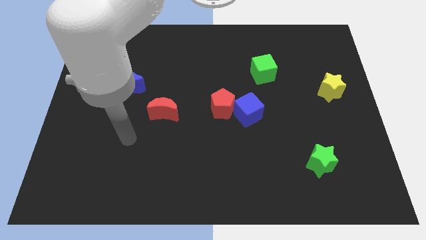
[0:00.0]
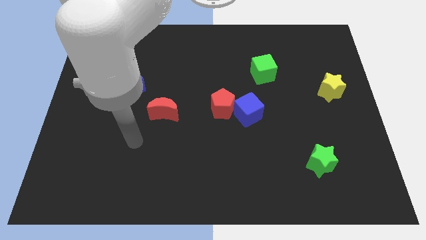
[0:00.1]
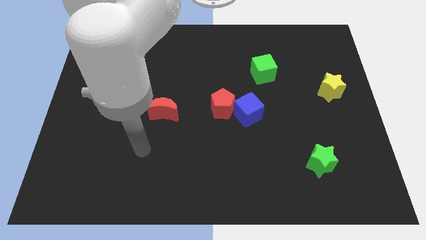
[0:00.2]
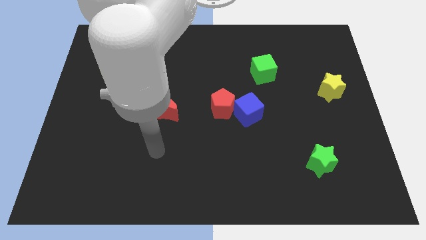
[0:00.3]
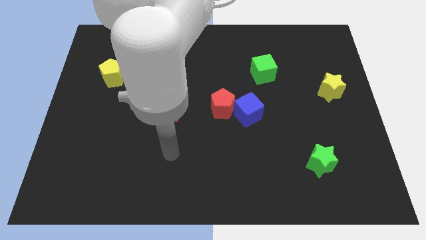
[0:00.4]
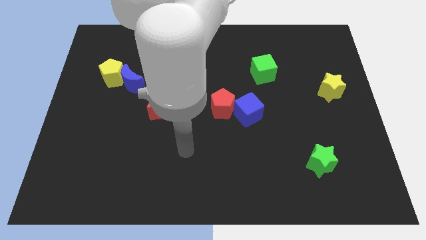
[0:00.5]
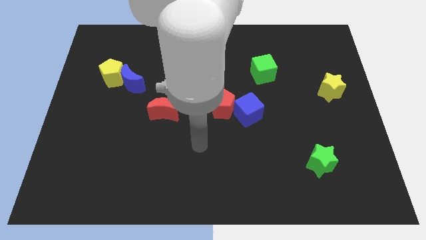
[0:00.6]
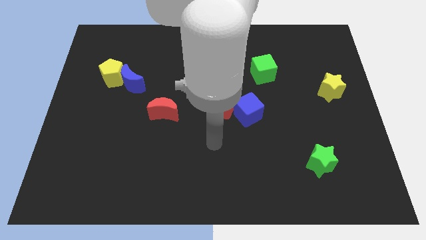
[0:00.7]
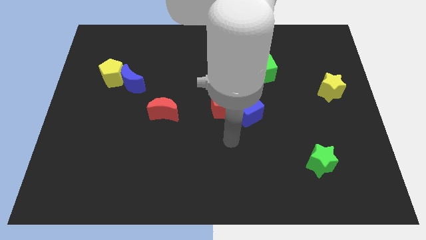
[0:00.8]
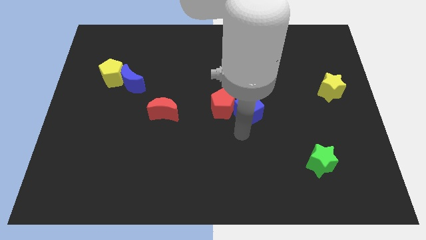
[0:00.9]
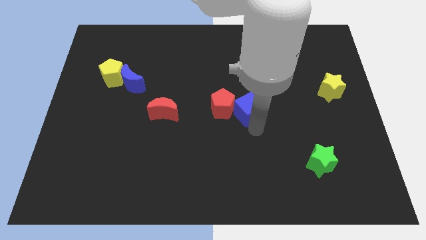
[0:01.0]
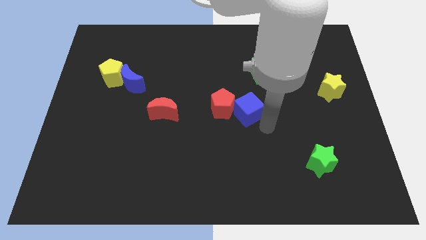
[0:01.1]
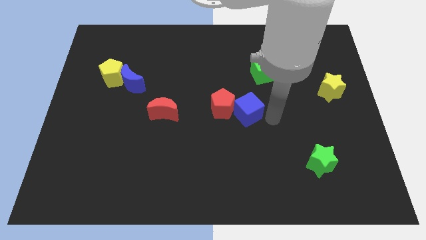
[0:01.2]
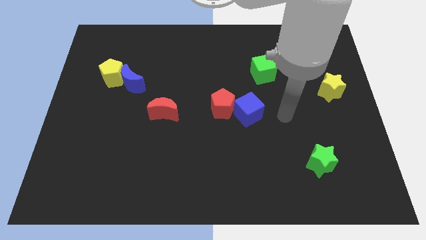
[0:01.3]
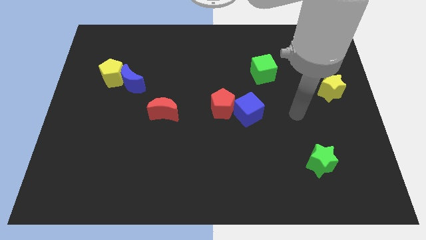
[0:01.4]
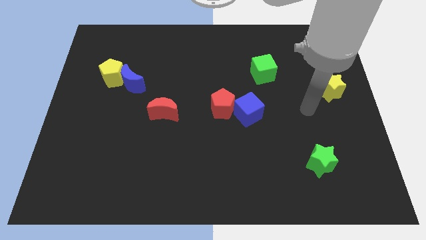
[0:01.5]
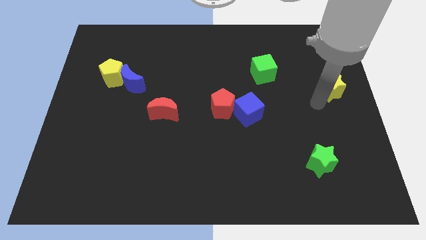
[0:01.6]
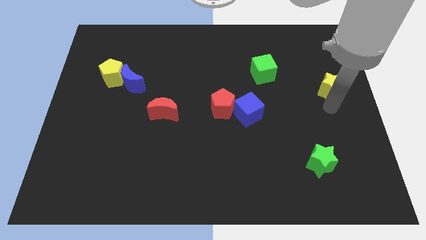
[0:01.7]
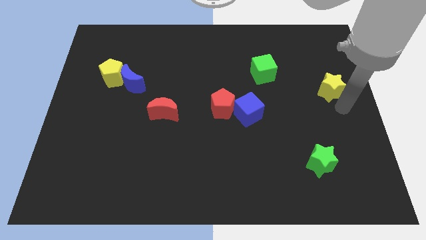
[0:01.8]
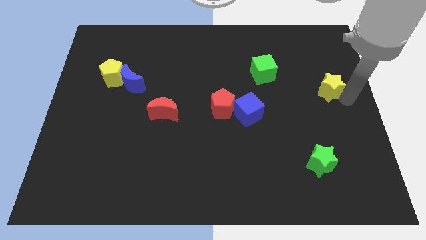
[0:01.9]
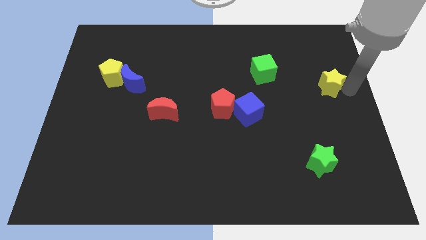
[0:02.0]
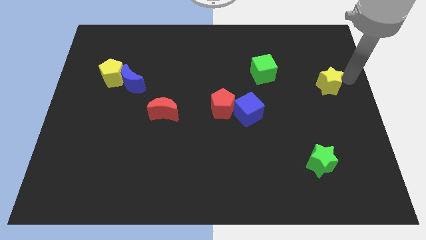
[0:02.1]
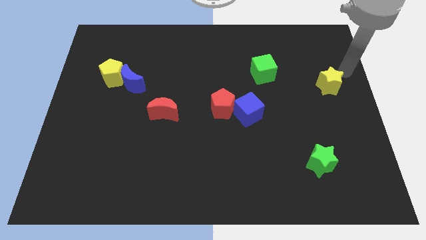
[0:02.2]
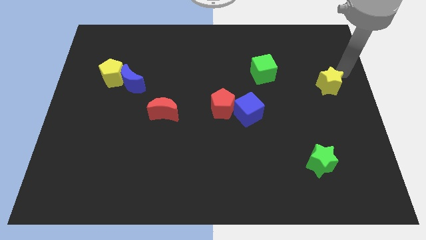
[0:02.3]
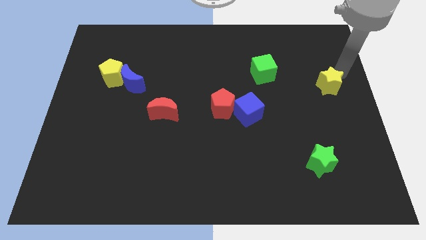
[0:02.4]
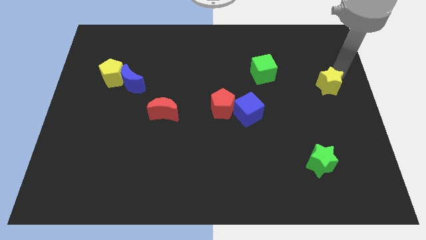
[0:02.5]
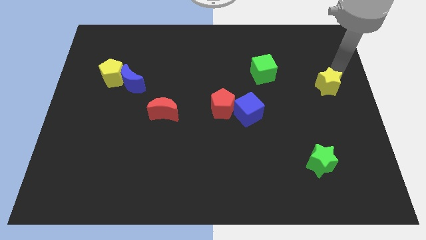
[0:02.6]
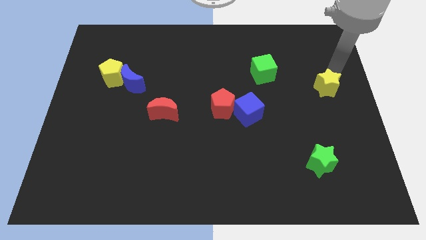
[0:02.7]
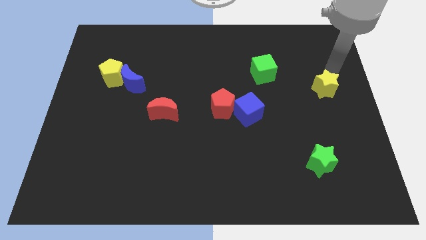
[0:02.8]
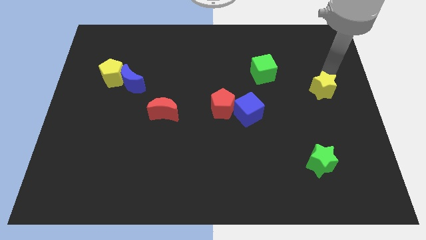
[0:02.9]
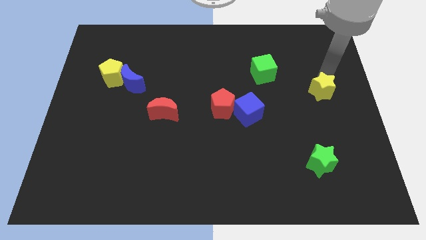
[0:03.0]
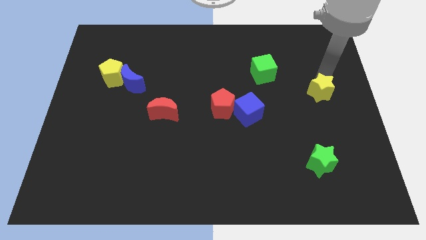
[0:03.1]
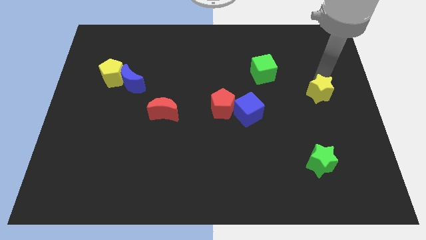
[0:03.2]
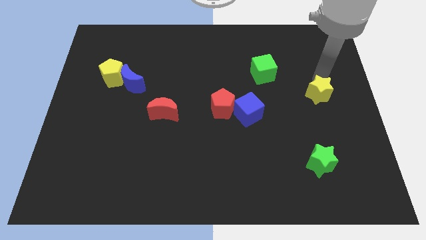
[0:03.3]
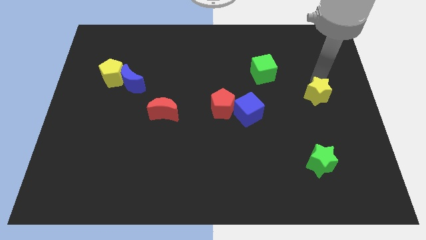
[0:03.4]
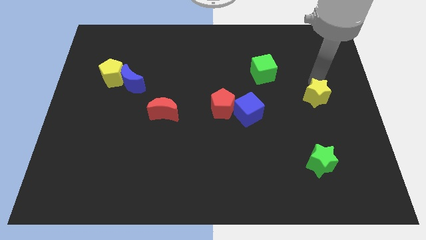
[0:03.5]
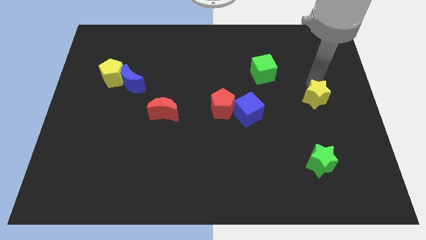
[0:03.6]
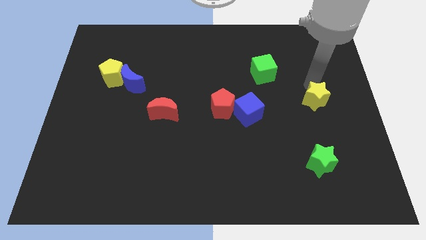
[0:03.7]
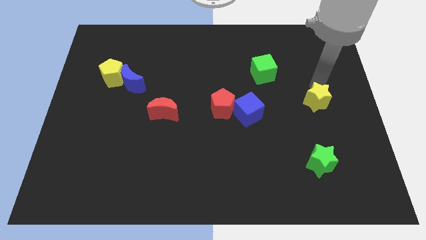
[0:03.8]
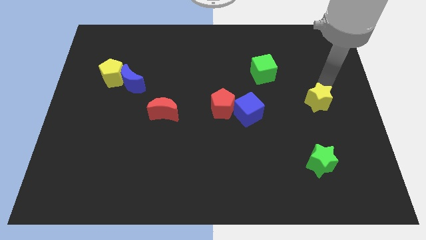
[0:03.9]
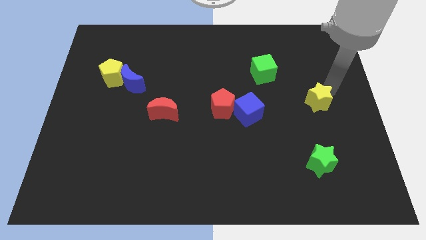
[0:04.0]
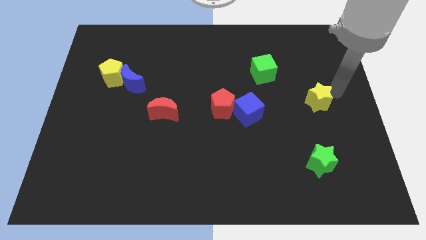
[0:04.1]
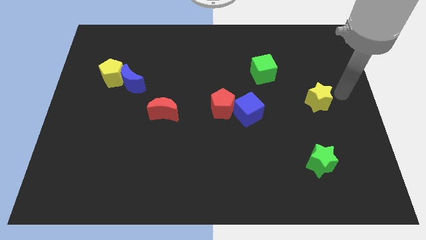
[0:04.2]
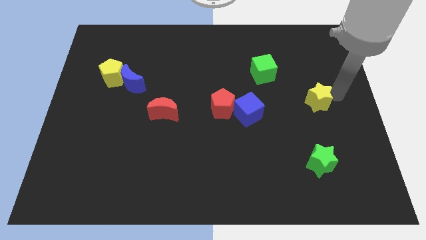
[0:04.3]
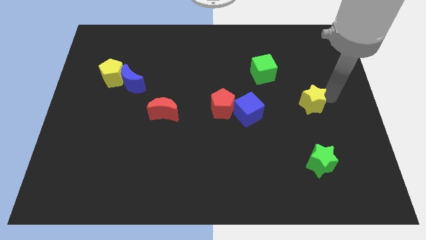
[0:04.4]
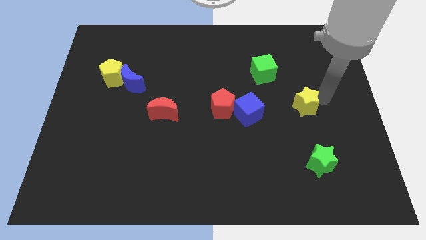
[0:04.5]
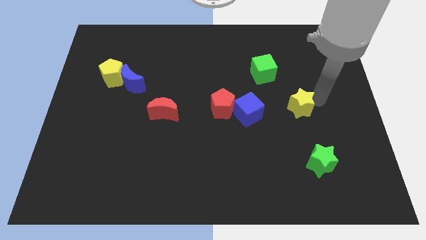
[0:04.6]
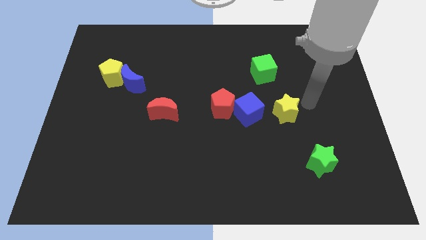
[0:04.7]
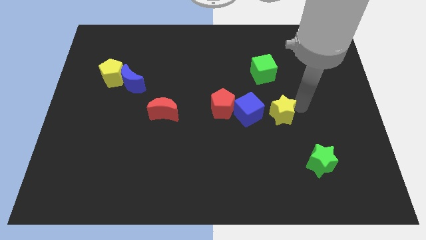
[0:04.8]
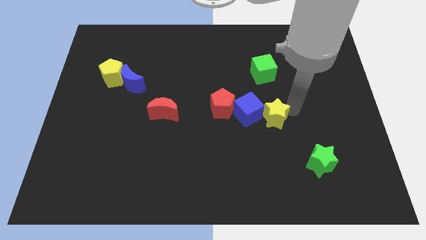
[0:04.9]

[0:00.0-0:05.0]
put the yellow star to the blue cube

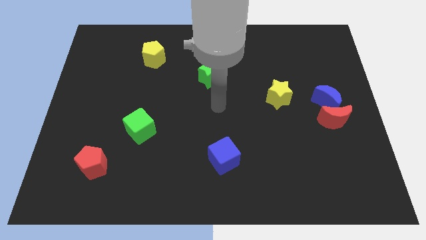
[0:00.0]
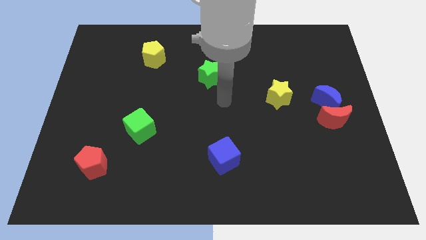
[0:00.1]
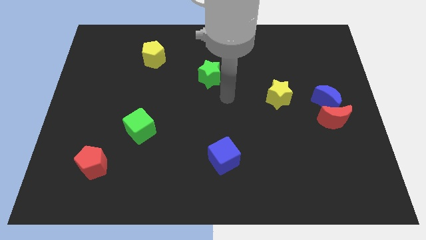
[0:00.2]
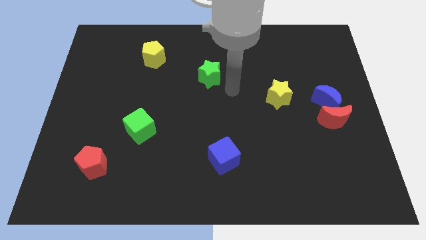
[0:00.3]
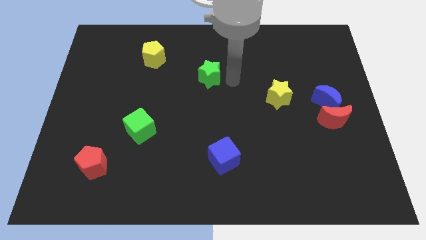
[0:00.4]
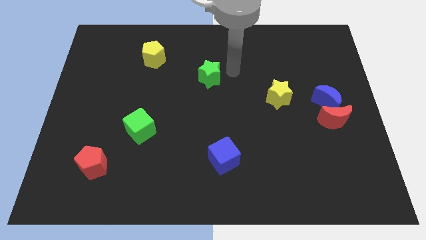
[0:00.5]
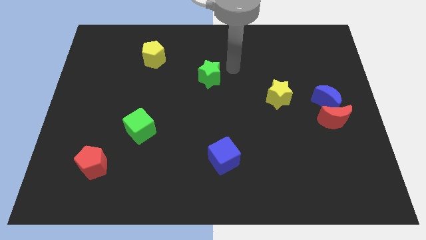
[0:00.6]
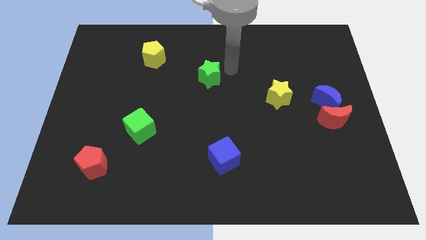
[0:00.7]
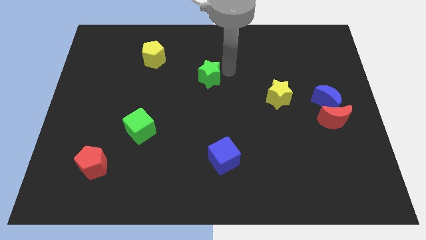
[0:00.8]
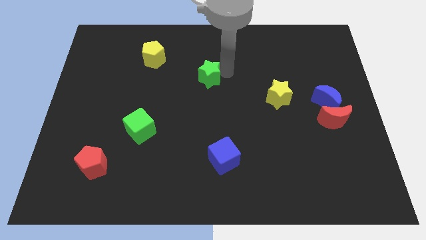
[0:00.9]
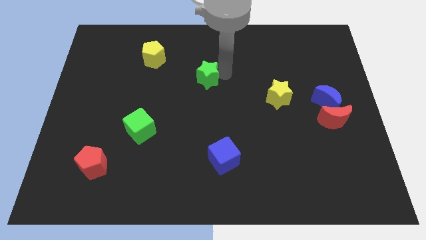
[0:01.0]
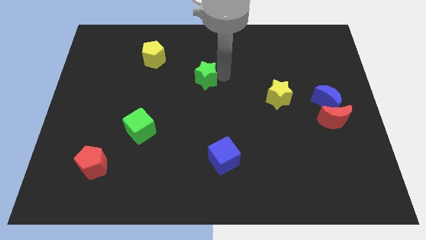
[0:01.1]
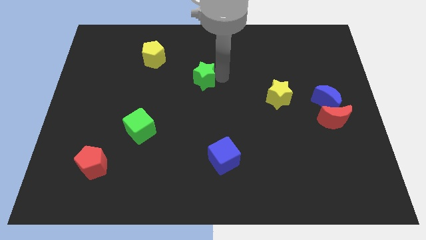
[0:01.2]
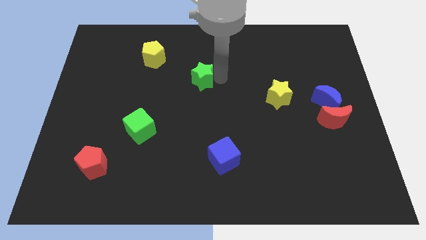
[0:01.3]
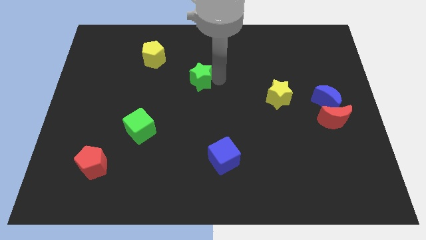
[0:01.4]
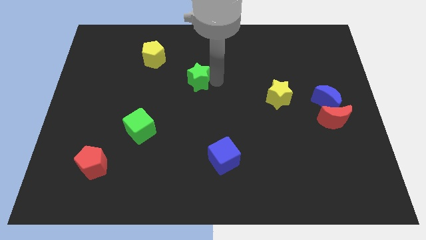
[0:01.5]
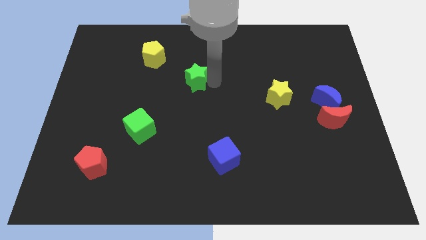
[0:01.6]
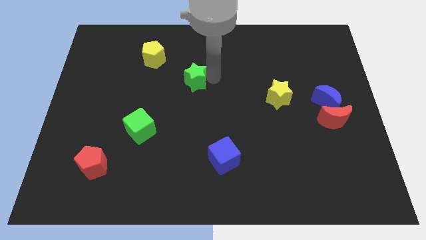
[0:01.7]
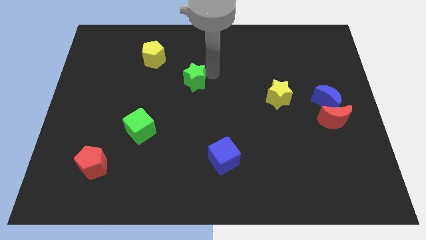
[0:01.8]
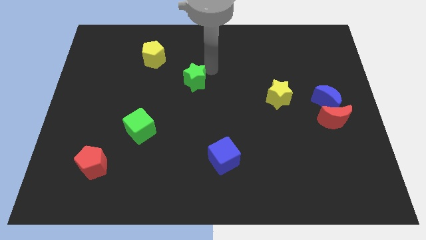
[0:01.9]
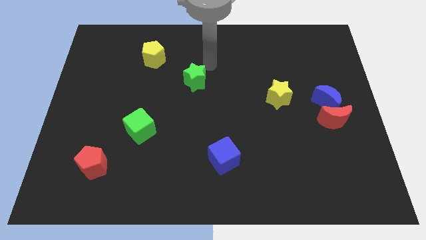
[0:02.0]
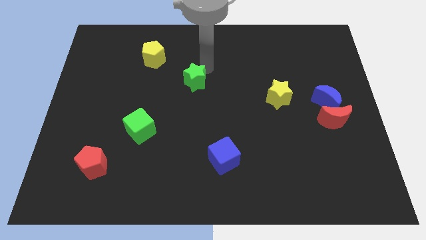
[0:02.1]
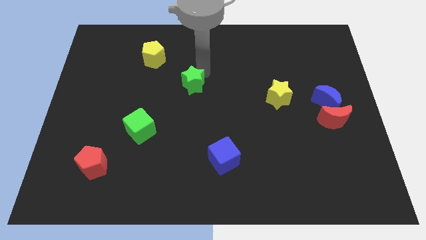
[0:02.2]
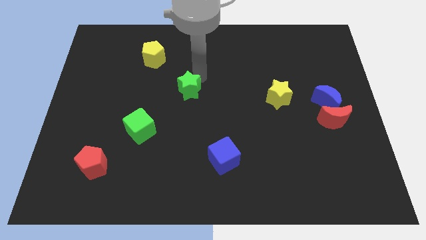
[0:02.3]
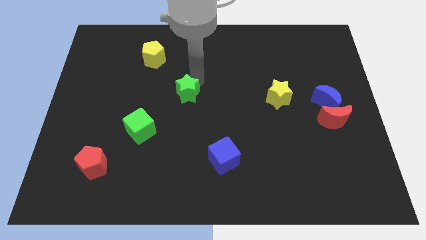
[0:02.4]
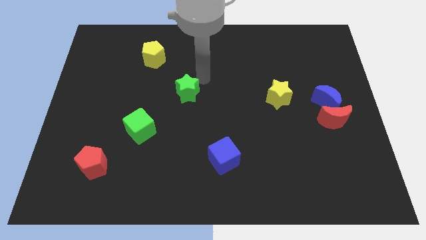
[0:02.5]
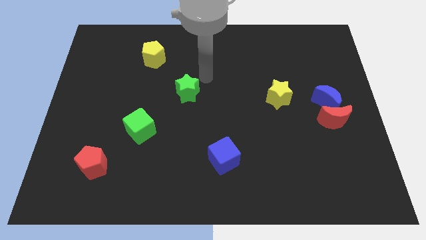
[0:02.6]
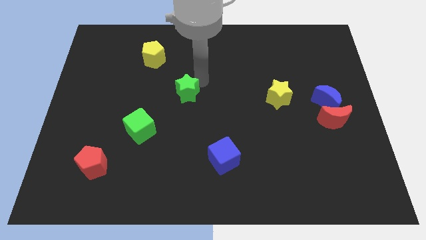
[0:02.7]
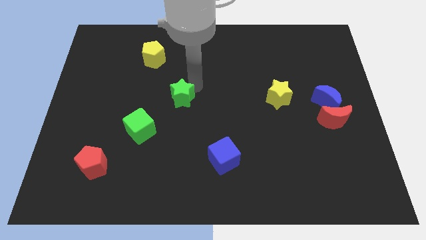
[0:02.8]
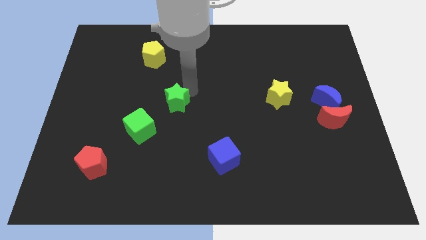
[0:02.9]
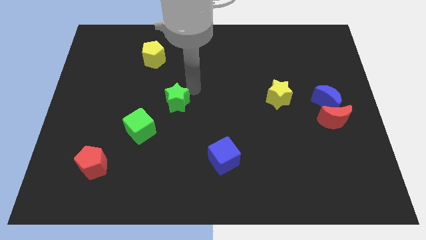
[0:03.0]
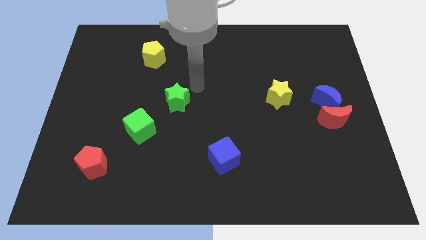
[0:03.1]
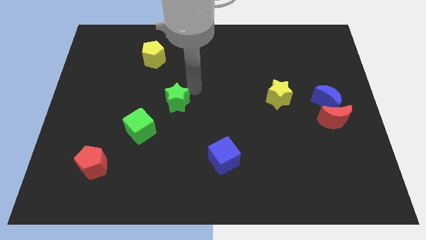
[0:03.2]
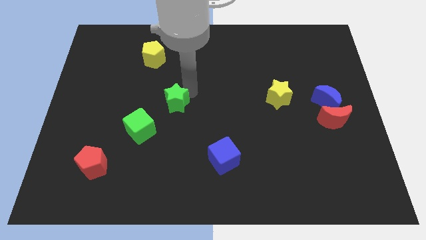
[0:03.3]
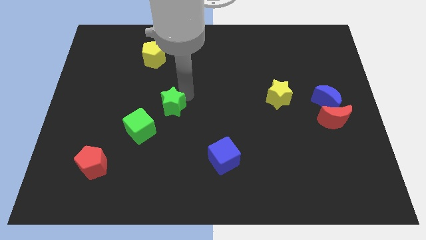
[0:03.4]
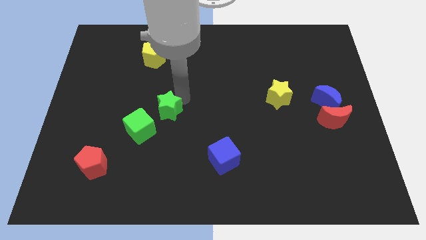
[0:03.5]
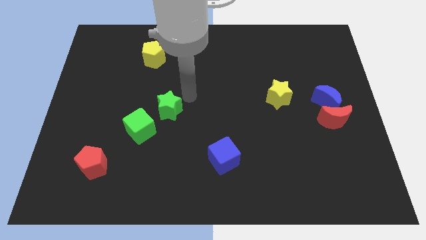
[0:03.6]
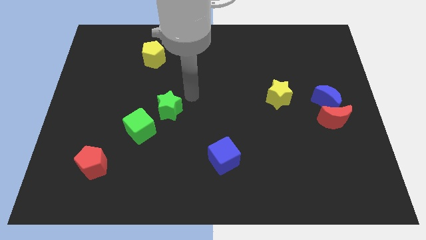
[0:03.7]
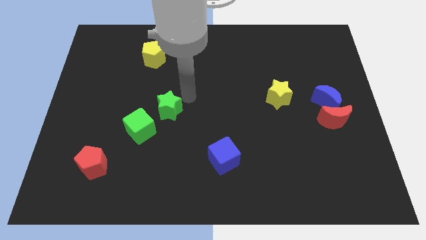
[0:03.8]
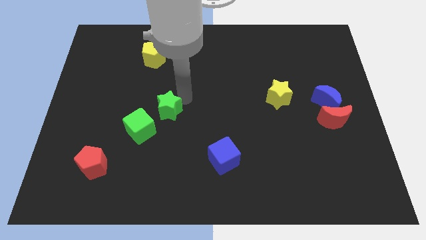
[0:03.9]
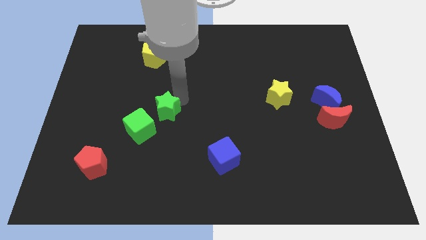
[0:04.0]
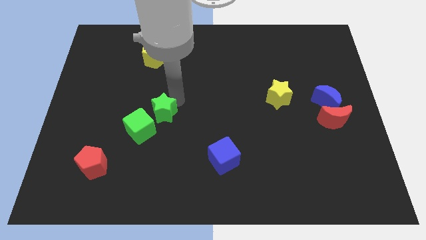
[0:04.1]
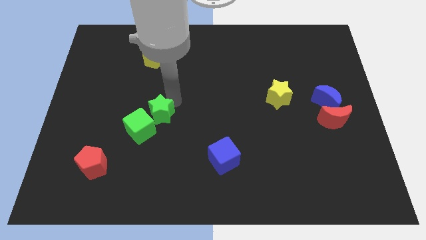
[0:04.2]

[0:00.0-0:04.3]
put the green star to the green cube
